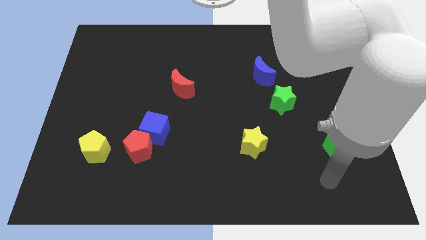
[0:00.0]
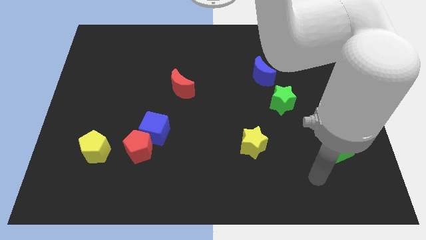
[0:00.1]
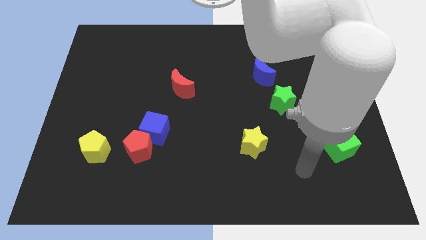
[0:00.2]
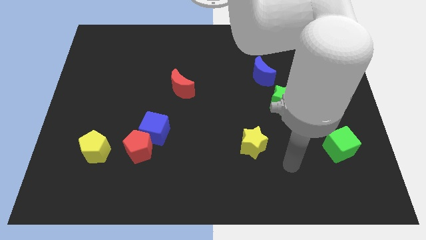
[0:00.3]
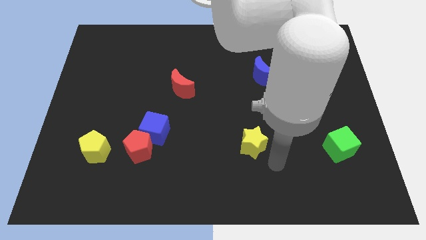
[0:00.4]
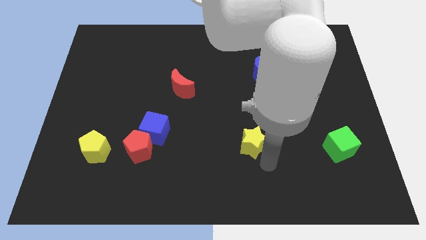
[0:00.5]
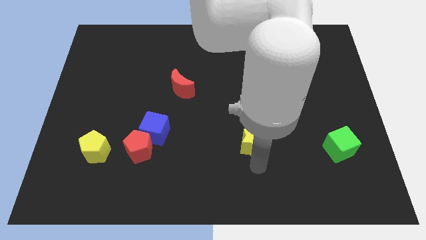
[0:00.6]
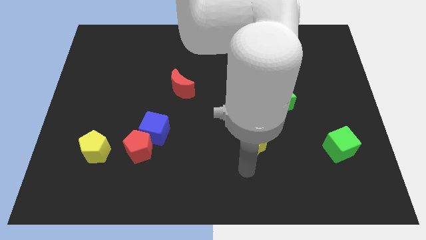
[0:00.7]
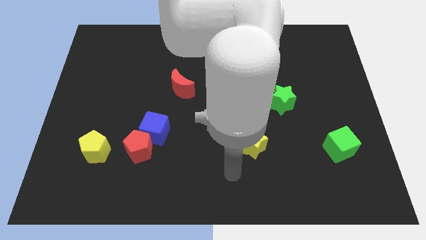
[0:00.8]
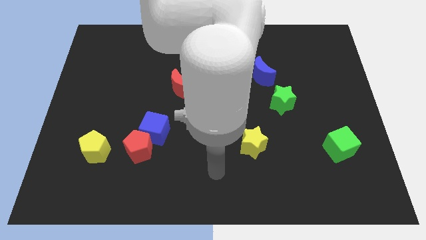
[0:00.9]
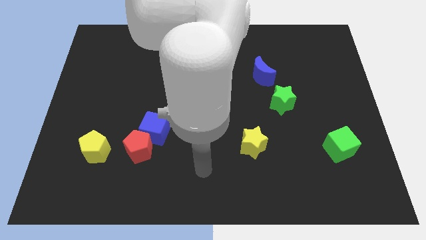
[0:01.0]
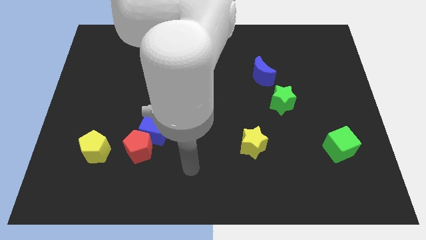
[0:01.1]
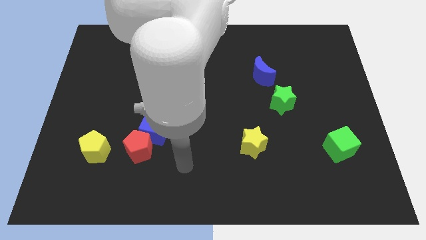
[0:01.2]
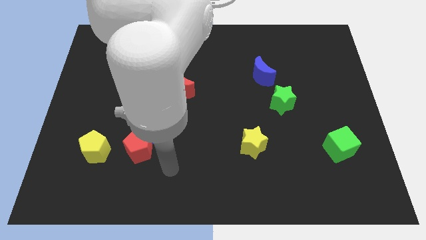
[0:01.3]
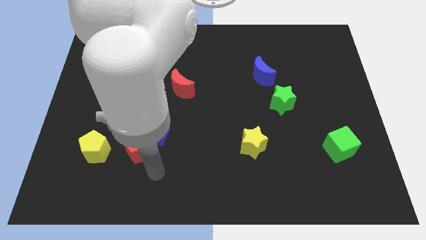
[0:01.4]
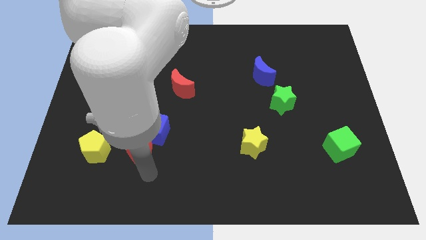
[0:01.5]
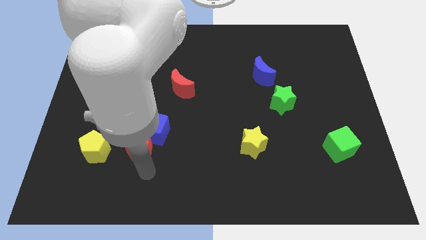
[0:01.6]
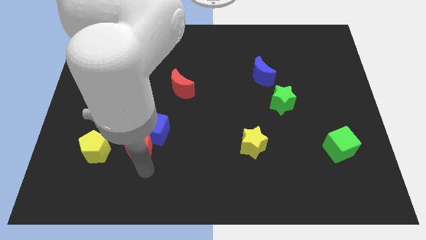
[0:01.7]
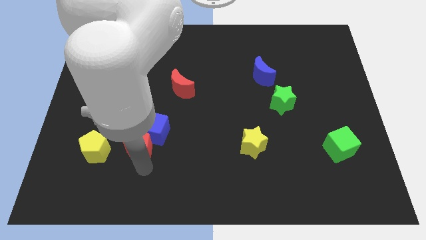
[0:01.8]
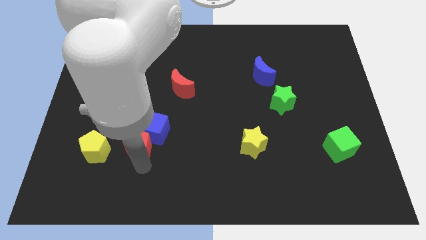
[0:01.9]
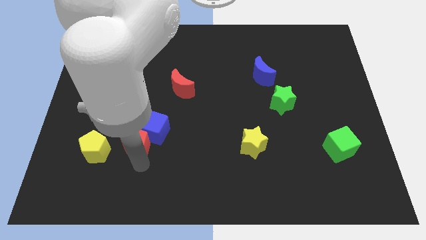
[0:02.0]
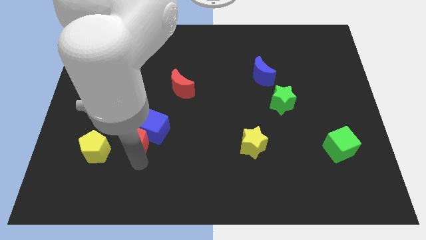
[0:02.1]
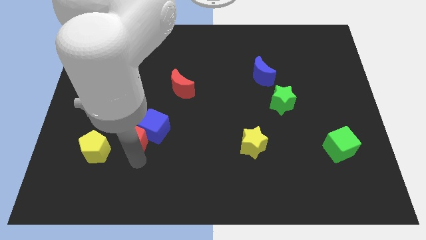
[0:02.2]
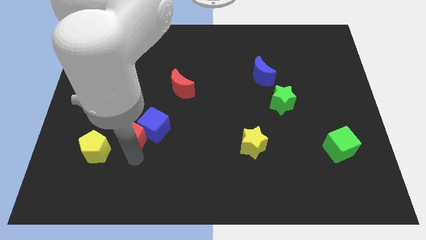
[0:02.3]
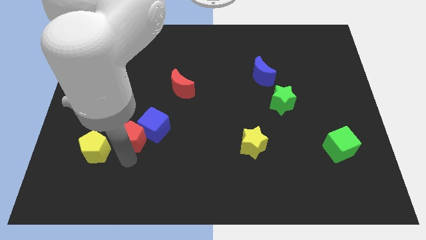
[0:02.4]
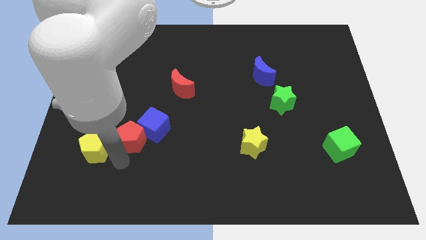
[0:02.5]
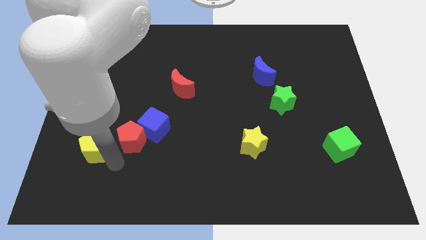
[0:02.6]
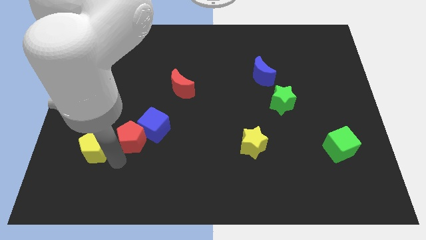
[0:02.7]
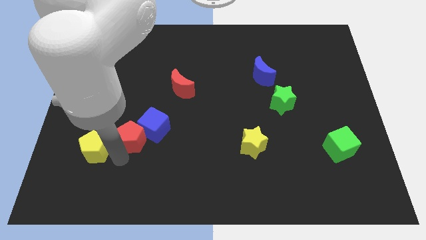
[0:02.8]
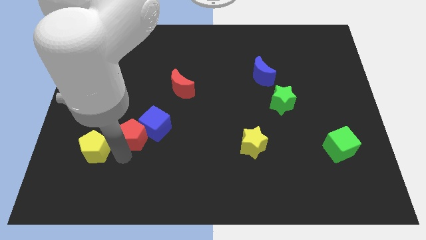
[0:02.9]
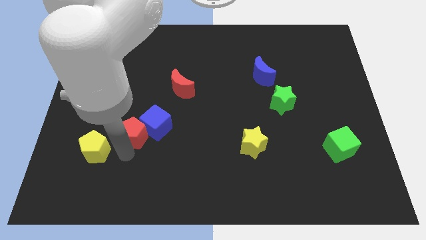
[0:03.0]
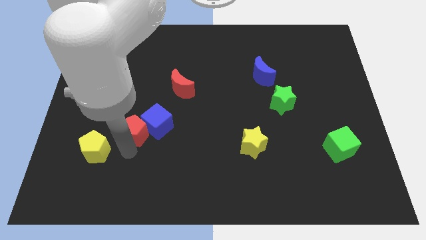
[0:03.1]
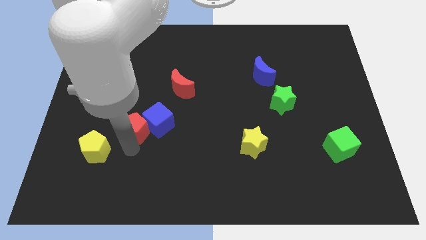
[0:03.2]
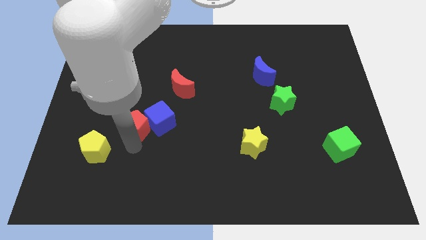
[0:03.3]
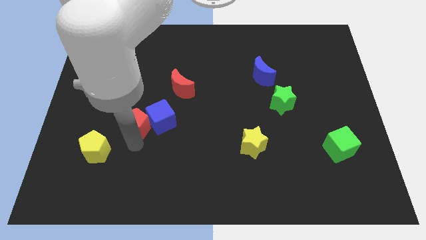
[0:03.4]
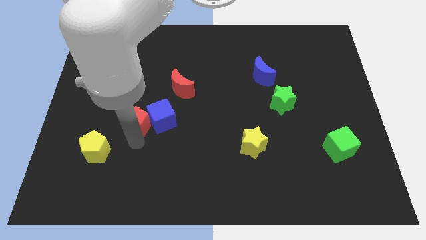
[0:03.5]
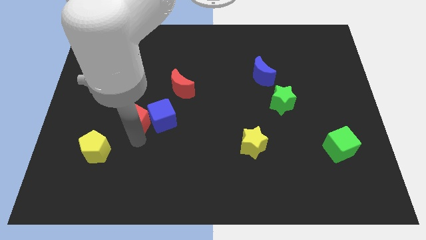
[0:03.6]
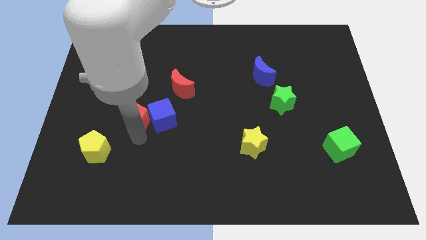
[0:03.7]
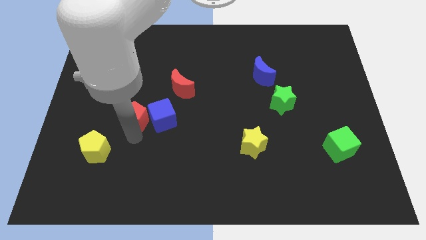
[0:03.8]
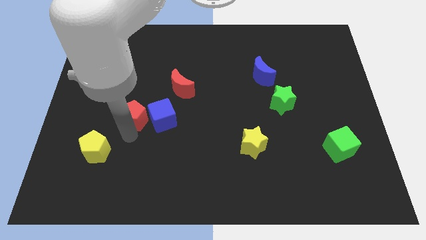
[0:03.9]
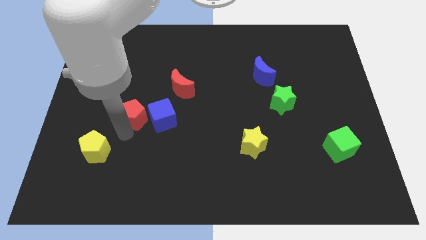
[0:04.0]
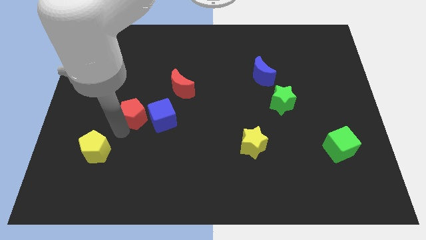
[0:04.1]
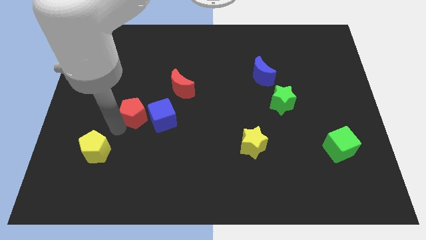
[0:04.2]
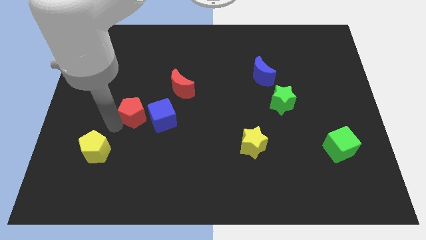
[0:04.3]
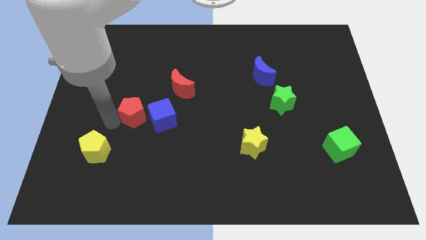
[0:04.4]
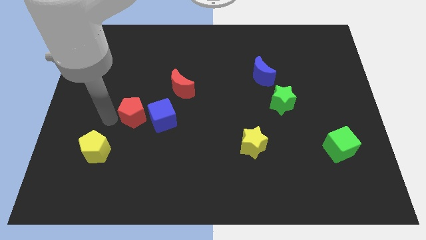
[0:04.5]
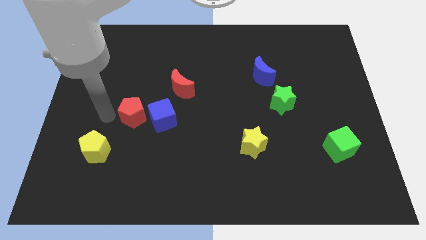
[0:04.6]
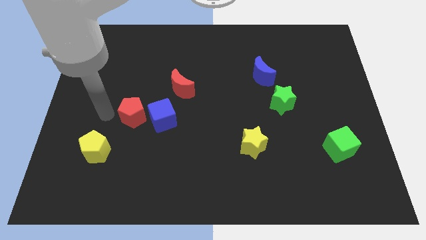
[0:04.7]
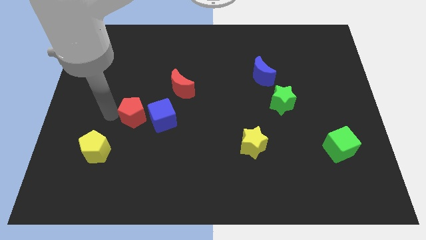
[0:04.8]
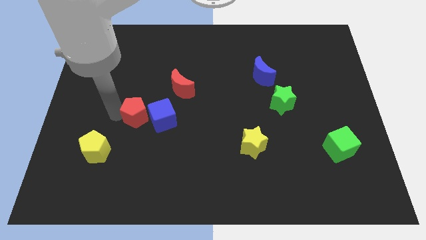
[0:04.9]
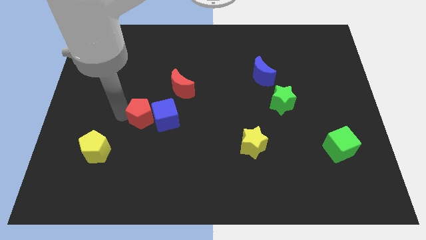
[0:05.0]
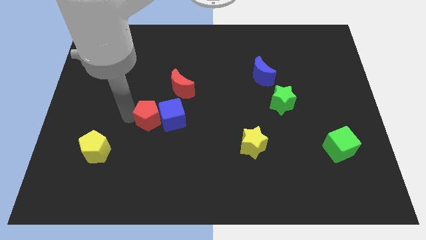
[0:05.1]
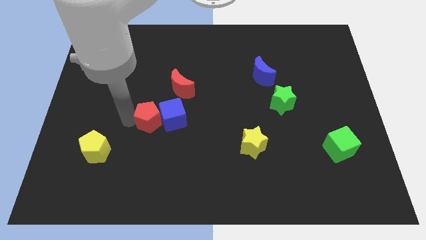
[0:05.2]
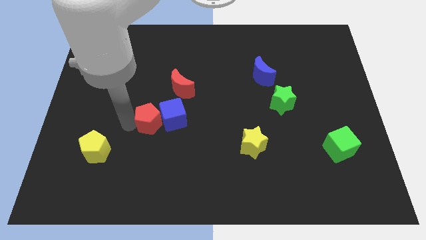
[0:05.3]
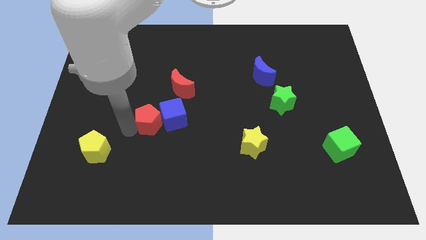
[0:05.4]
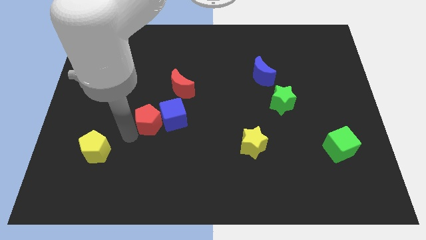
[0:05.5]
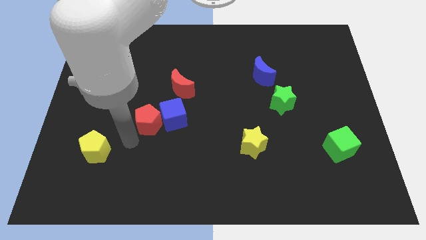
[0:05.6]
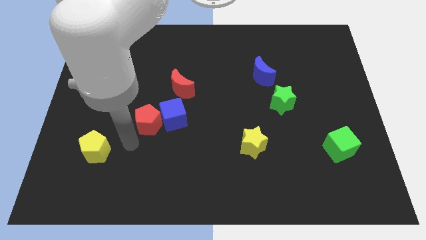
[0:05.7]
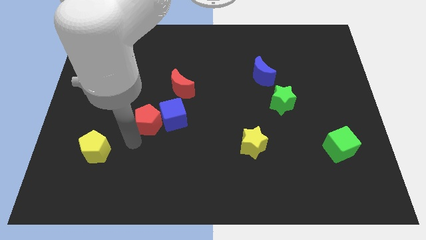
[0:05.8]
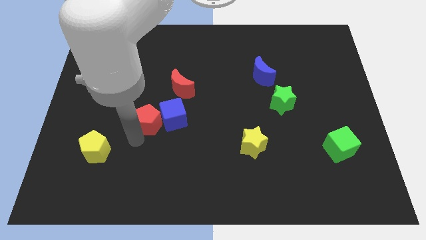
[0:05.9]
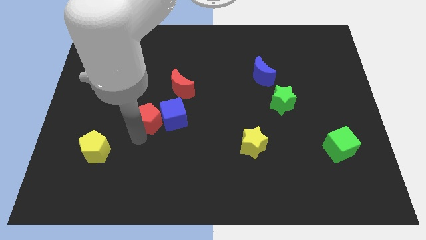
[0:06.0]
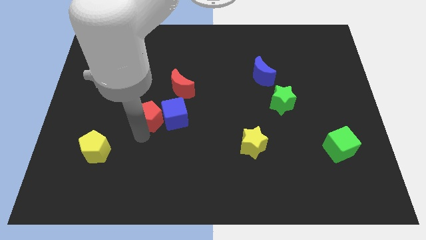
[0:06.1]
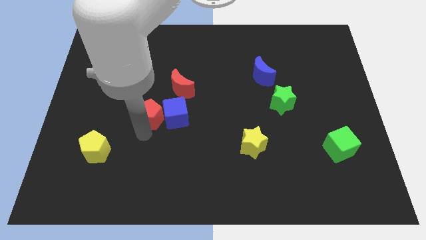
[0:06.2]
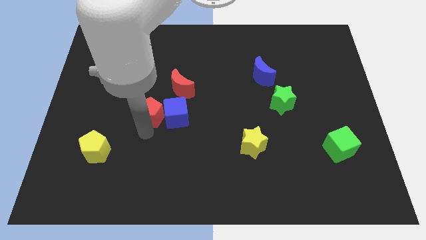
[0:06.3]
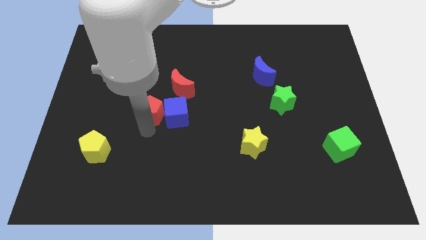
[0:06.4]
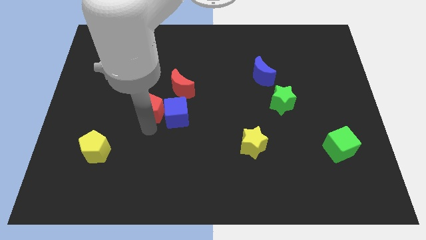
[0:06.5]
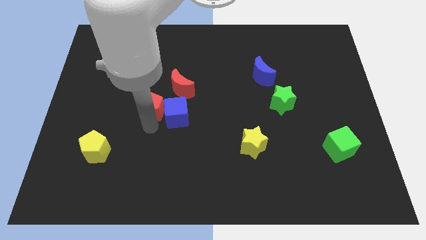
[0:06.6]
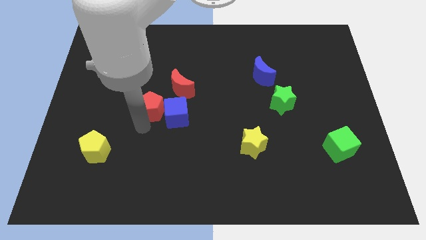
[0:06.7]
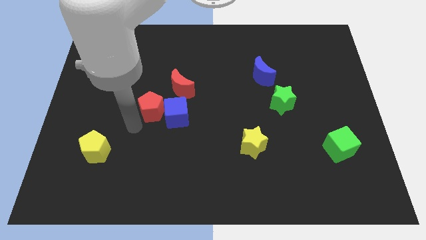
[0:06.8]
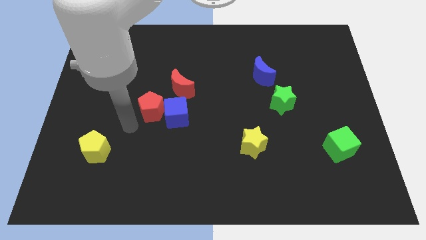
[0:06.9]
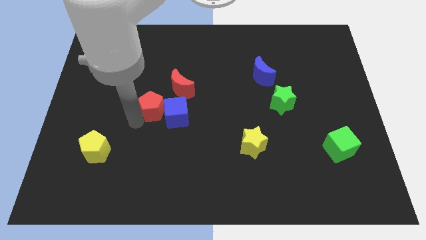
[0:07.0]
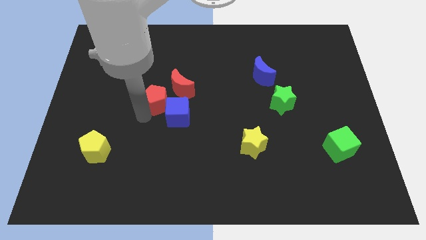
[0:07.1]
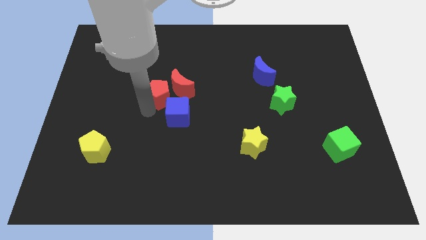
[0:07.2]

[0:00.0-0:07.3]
slide the red pentagon to the red moon

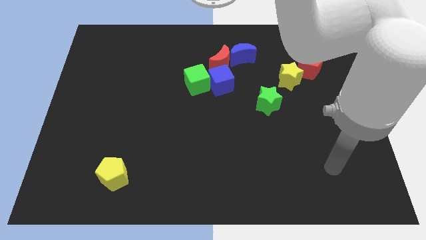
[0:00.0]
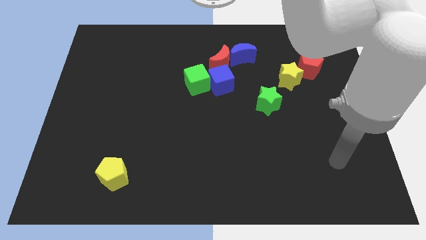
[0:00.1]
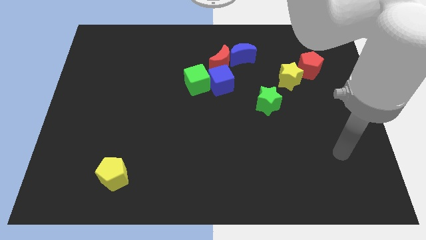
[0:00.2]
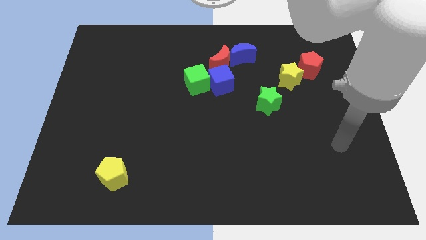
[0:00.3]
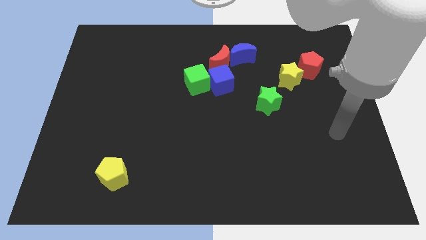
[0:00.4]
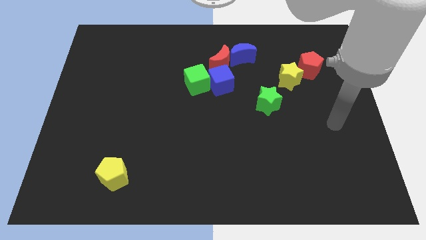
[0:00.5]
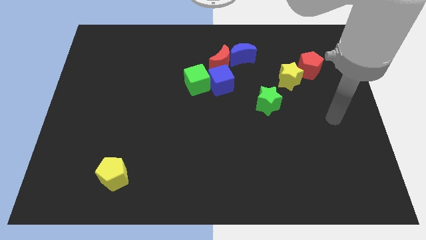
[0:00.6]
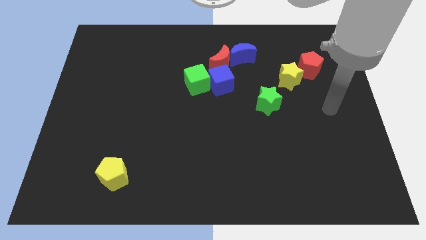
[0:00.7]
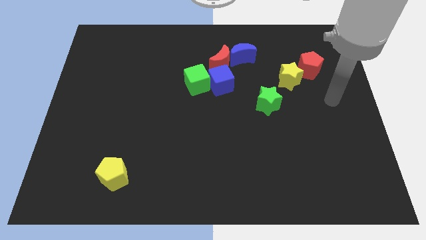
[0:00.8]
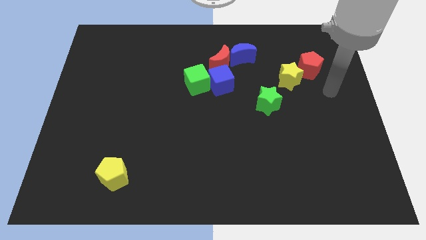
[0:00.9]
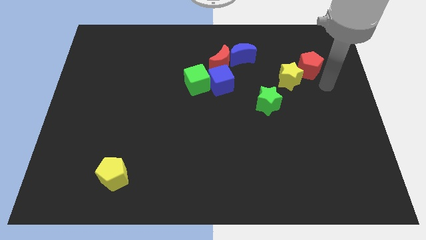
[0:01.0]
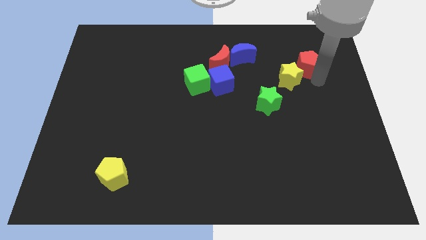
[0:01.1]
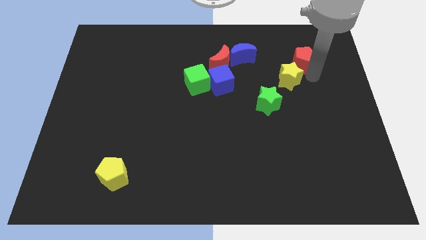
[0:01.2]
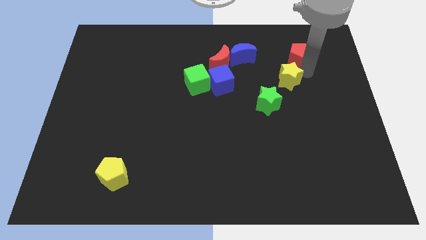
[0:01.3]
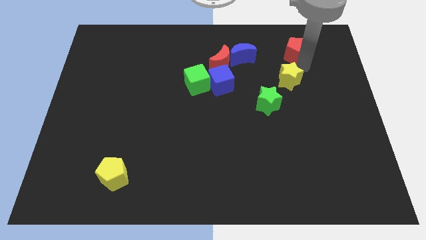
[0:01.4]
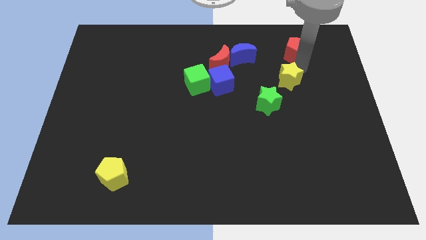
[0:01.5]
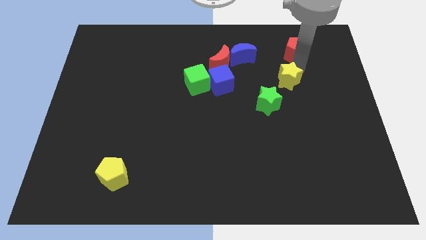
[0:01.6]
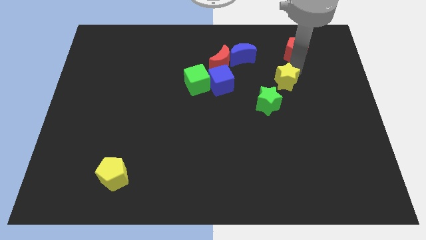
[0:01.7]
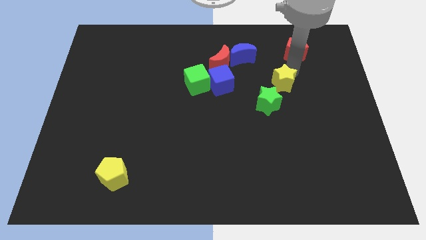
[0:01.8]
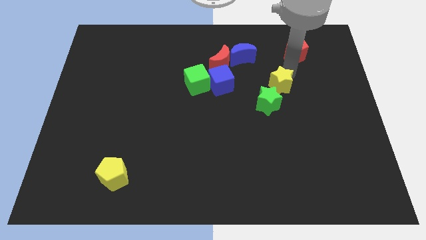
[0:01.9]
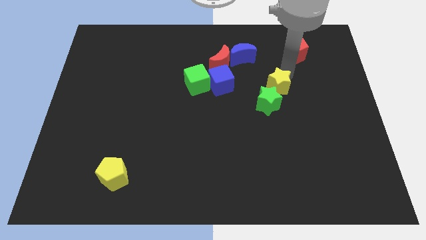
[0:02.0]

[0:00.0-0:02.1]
put the yellow star next to the green star
